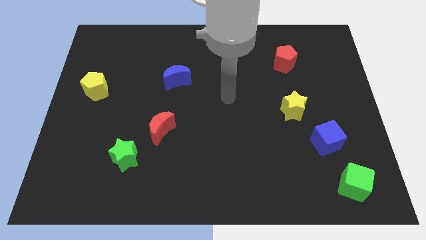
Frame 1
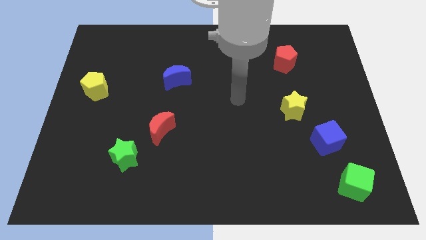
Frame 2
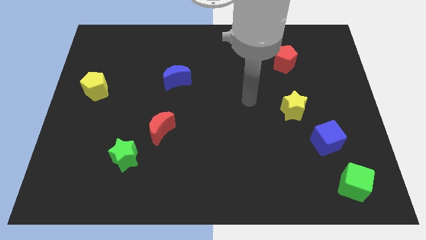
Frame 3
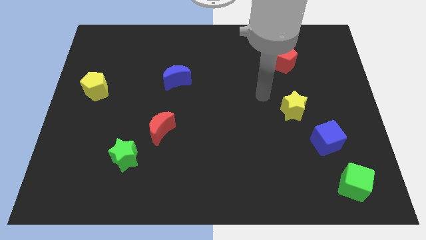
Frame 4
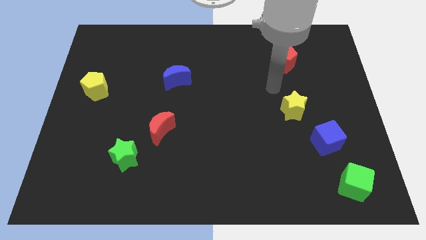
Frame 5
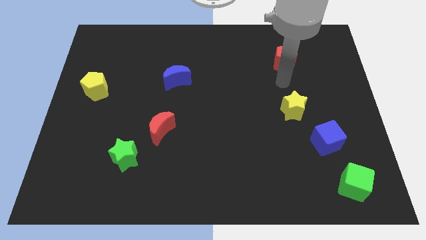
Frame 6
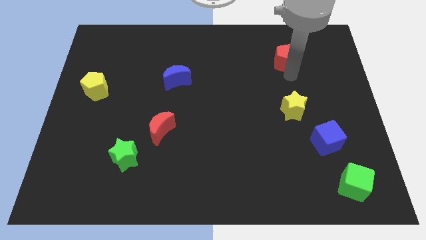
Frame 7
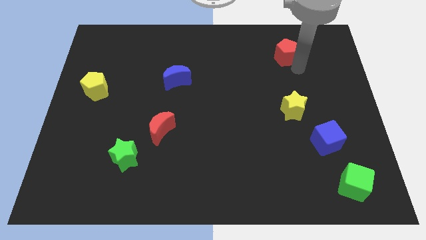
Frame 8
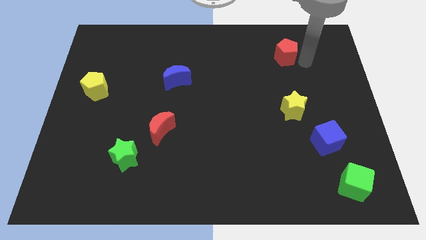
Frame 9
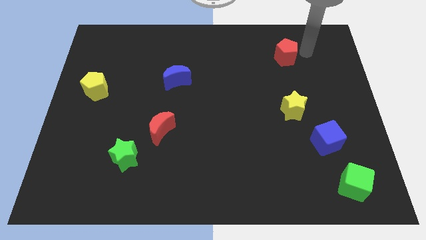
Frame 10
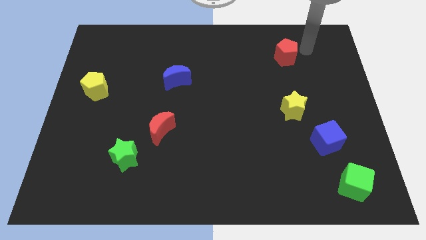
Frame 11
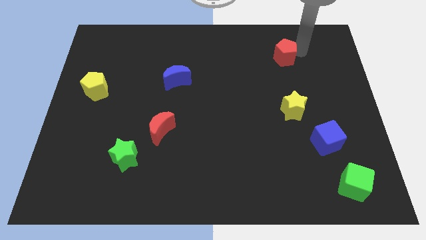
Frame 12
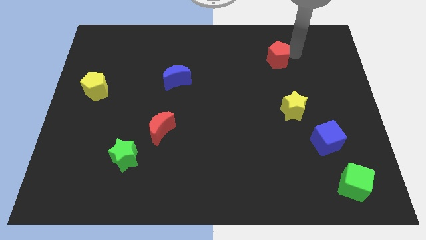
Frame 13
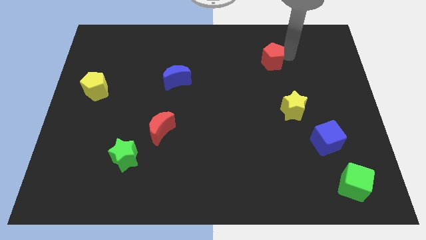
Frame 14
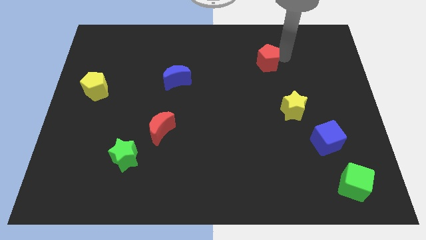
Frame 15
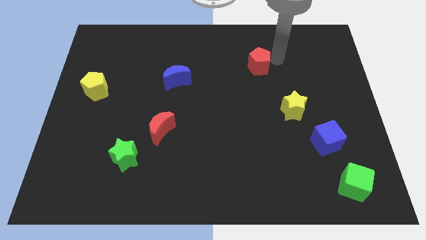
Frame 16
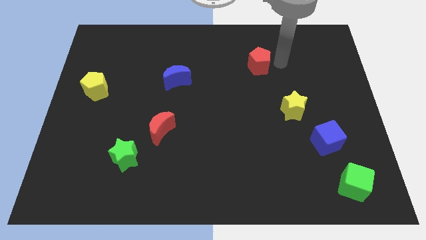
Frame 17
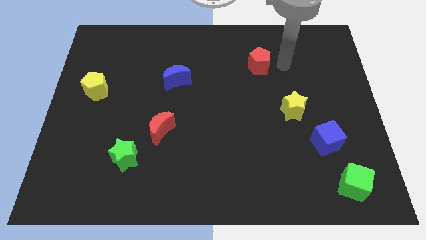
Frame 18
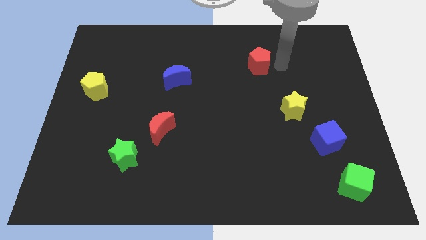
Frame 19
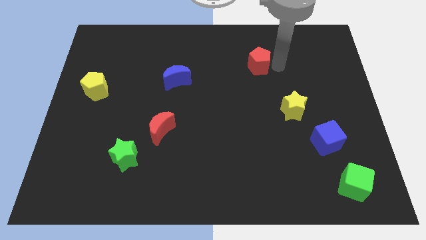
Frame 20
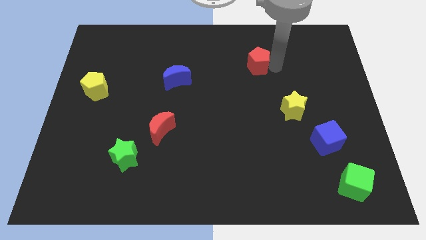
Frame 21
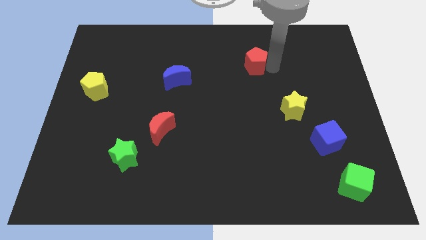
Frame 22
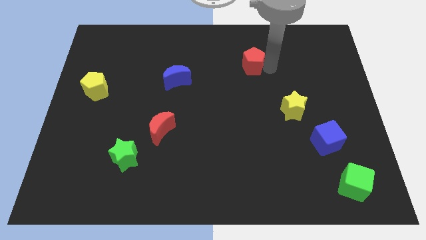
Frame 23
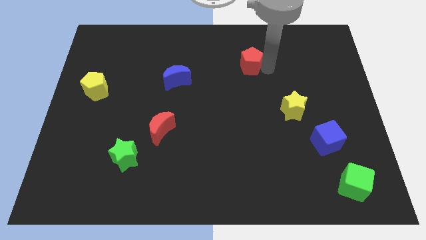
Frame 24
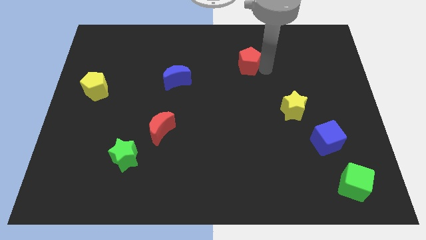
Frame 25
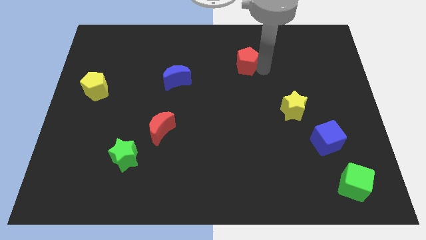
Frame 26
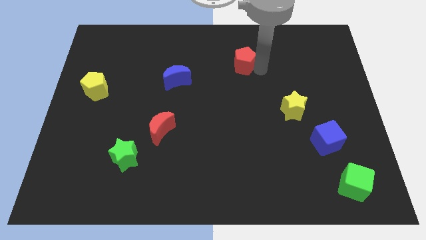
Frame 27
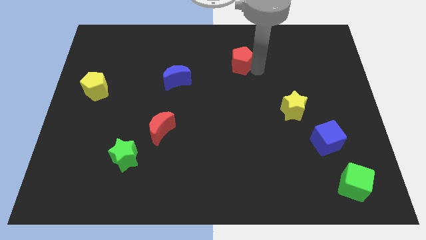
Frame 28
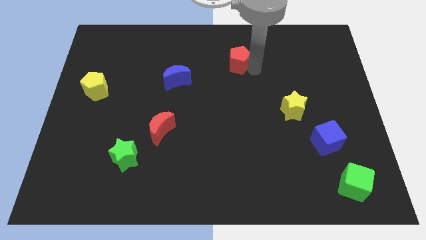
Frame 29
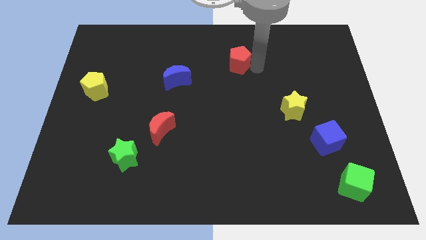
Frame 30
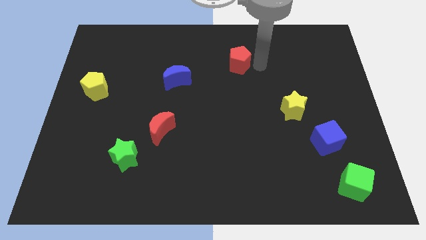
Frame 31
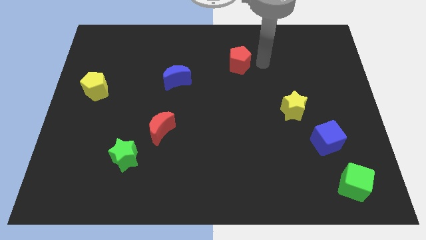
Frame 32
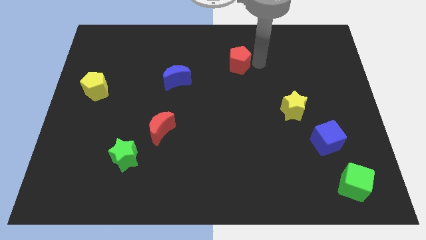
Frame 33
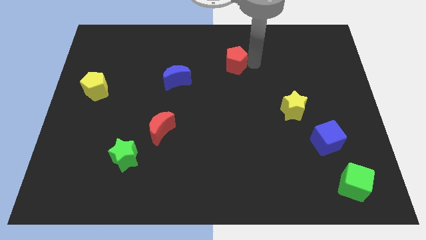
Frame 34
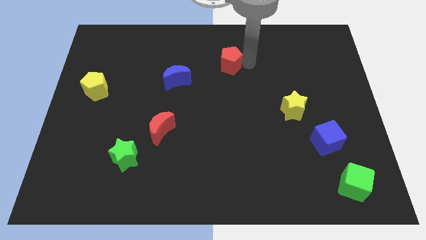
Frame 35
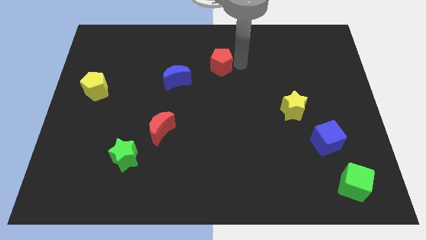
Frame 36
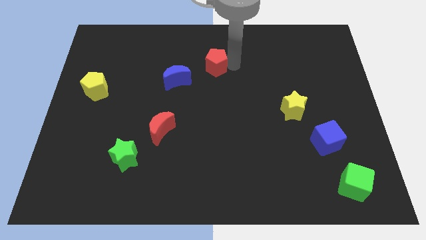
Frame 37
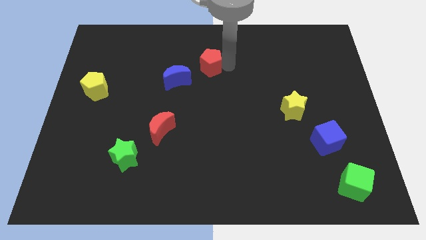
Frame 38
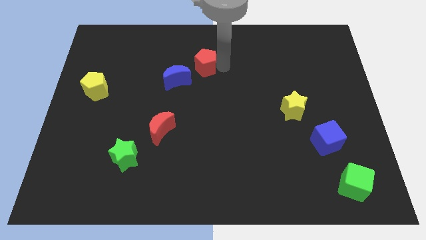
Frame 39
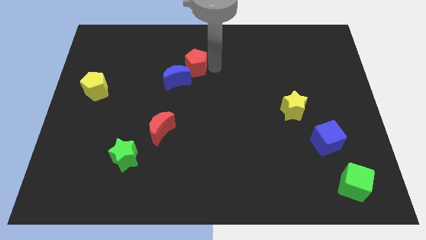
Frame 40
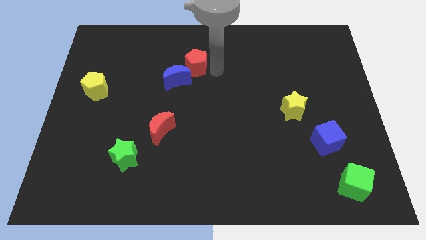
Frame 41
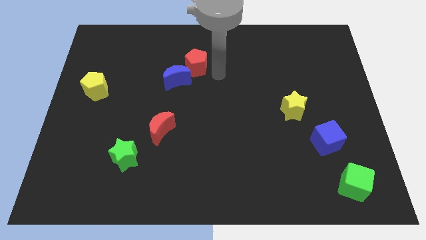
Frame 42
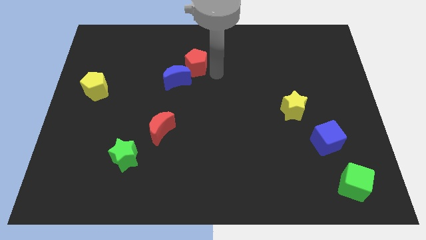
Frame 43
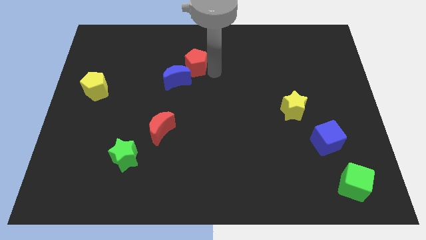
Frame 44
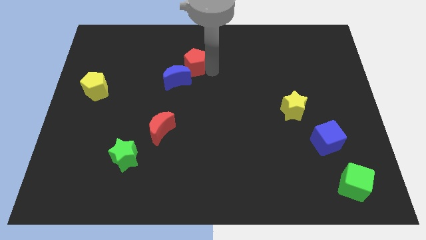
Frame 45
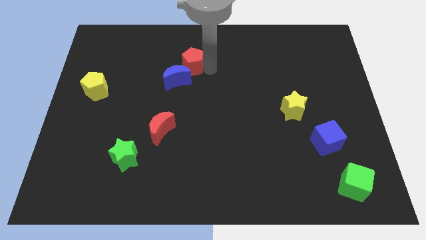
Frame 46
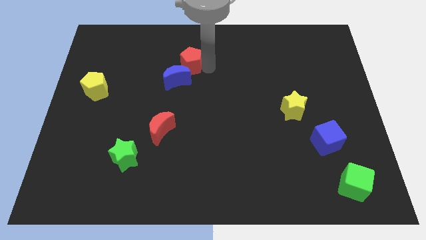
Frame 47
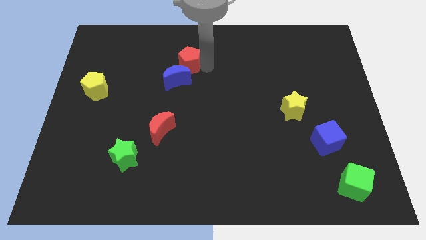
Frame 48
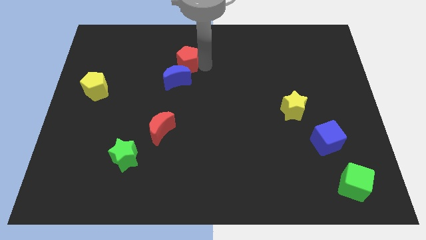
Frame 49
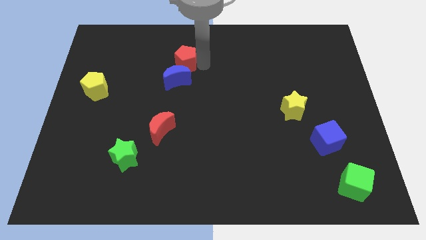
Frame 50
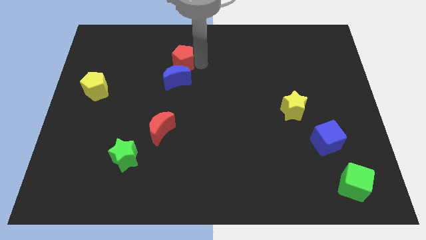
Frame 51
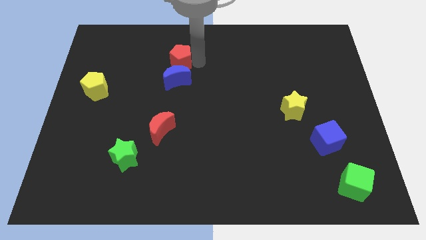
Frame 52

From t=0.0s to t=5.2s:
slide the red pentagon to the top left of the blue moon

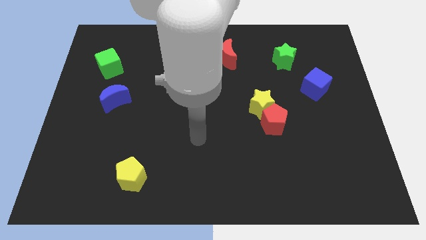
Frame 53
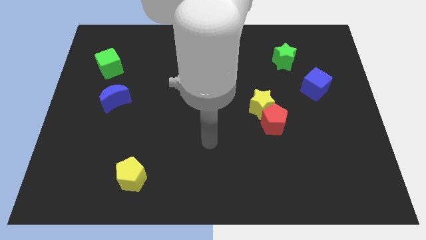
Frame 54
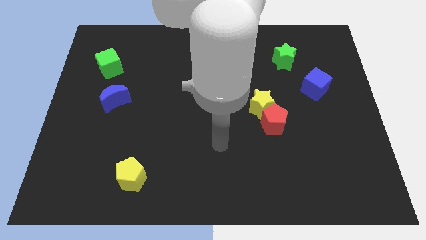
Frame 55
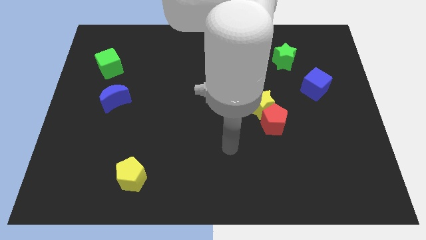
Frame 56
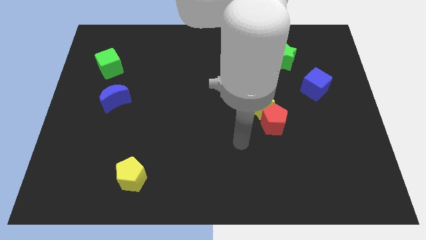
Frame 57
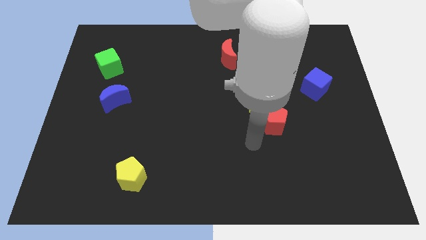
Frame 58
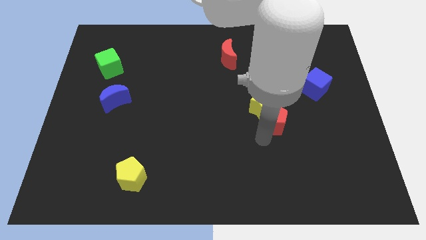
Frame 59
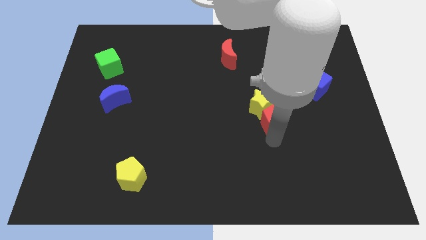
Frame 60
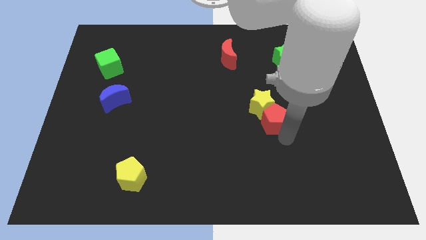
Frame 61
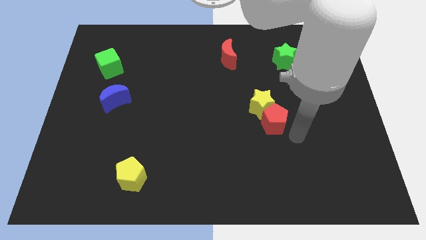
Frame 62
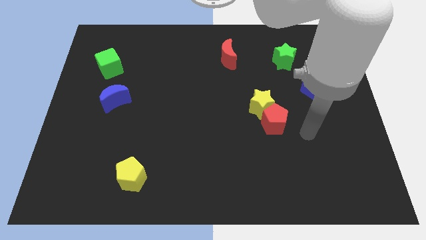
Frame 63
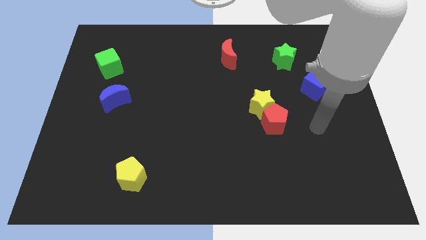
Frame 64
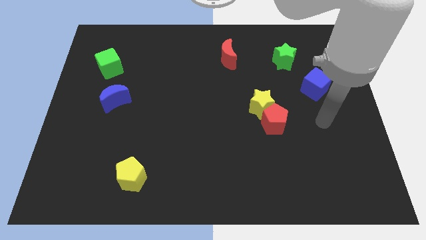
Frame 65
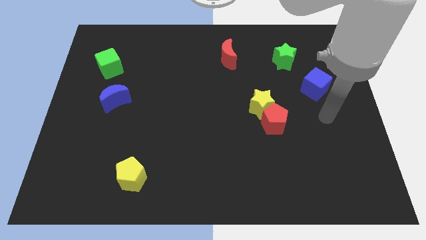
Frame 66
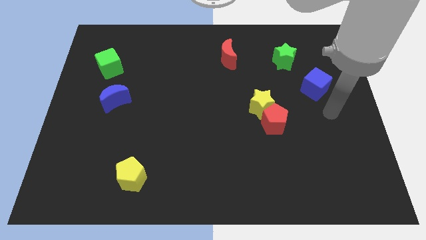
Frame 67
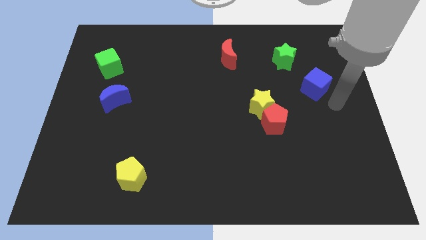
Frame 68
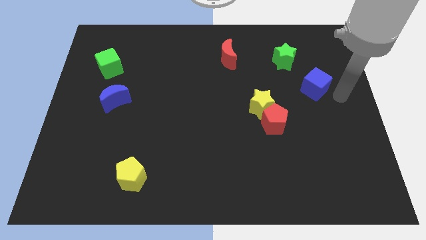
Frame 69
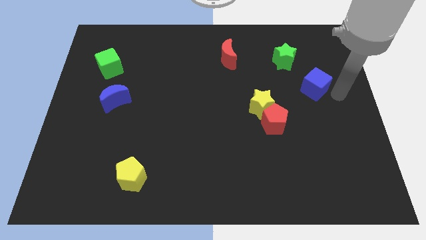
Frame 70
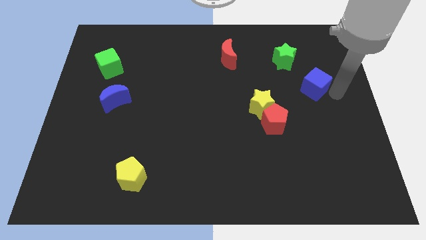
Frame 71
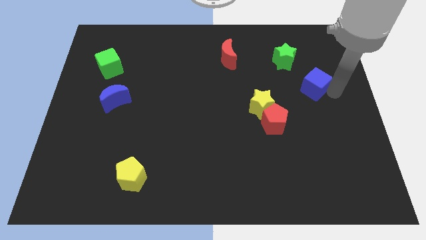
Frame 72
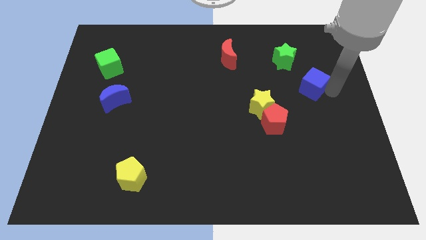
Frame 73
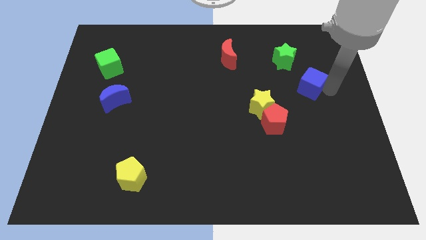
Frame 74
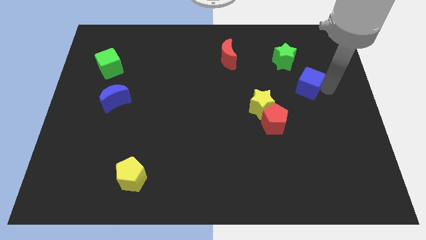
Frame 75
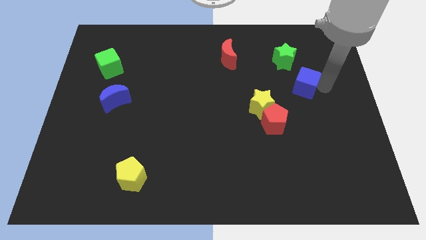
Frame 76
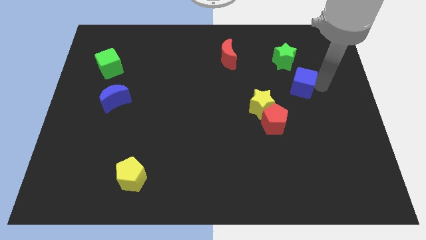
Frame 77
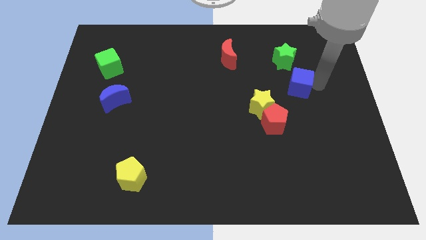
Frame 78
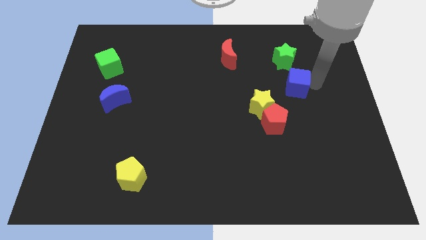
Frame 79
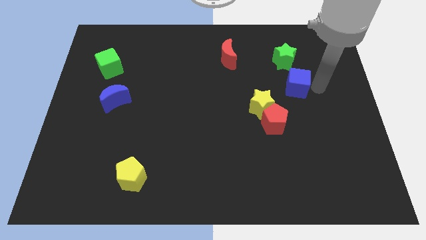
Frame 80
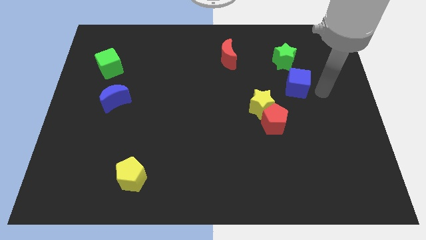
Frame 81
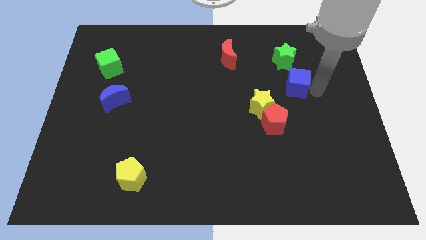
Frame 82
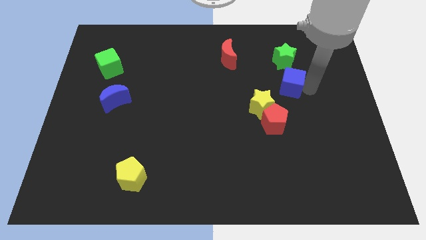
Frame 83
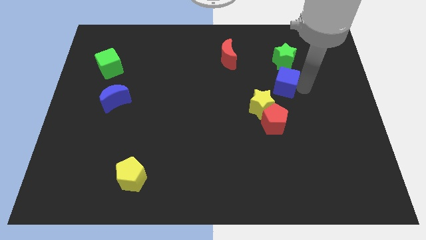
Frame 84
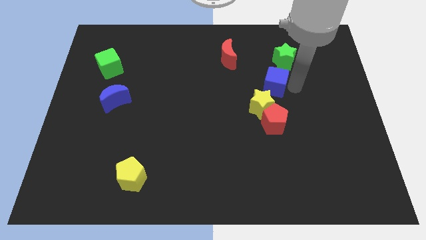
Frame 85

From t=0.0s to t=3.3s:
move the blue cube to the top side of the yellow star
